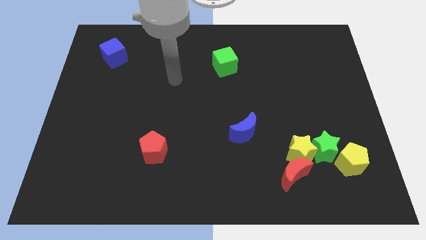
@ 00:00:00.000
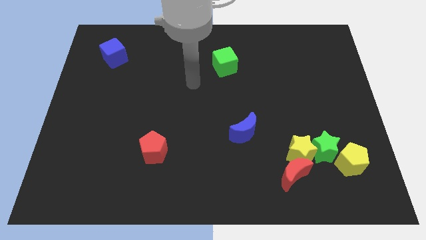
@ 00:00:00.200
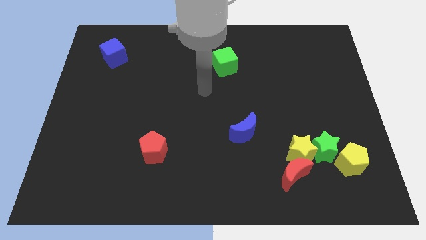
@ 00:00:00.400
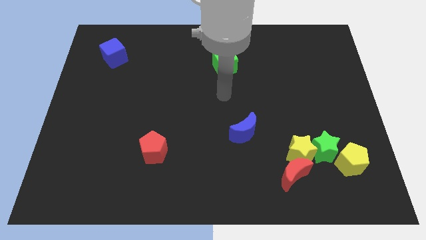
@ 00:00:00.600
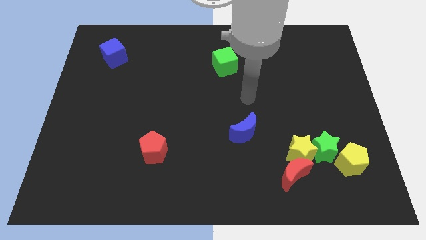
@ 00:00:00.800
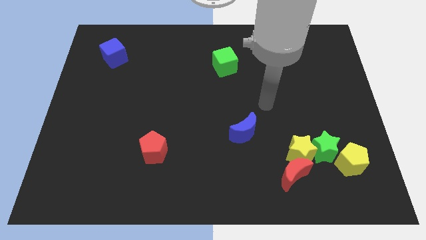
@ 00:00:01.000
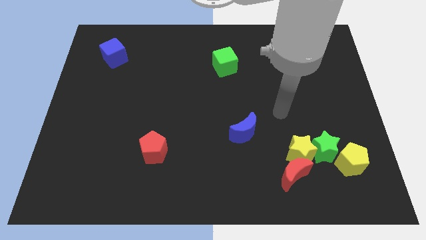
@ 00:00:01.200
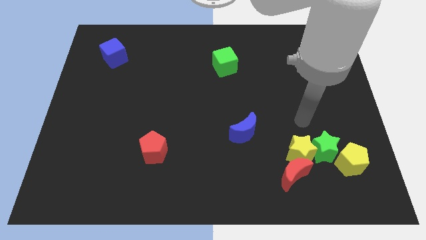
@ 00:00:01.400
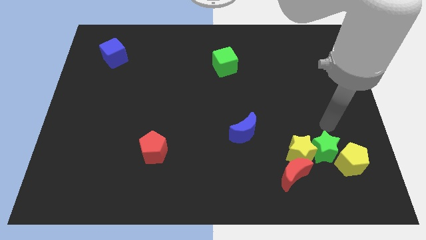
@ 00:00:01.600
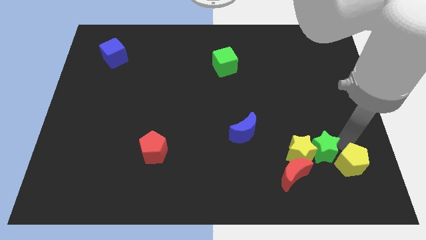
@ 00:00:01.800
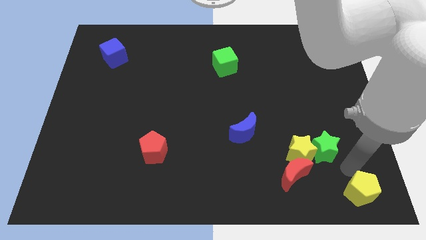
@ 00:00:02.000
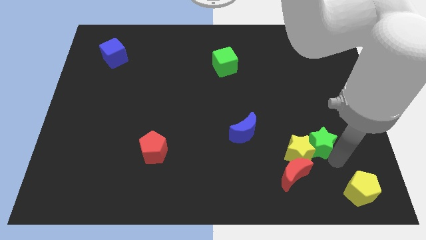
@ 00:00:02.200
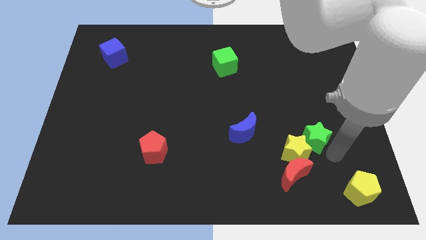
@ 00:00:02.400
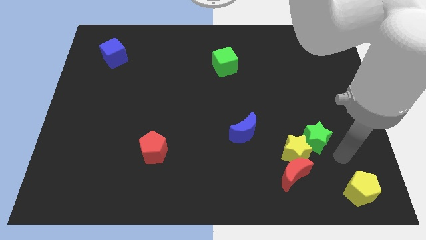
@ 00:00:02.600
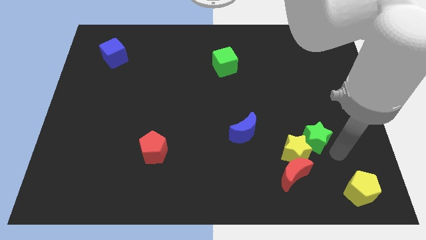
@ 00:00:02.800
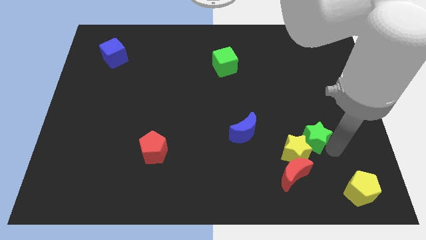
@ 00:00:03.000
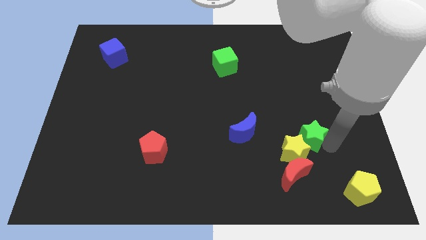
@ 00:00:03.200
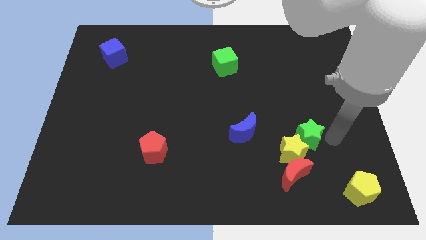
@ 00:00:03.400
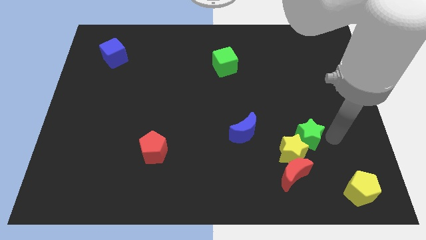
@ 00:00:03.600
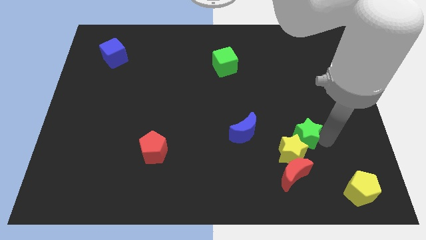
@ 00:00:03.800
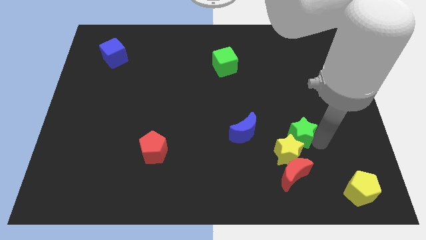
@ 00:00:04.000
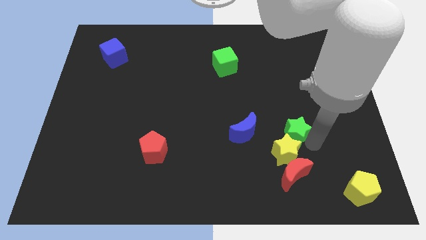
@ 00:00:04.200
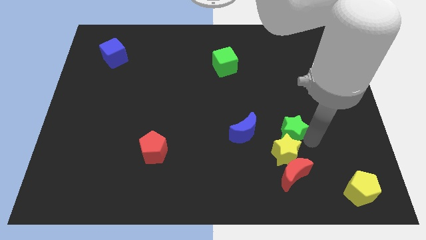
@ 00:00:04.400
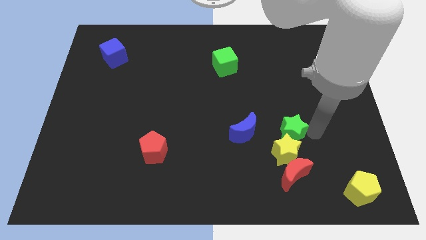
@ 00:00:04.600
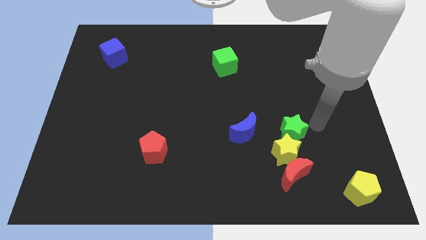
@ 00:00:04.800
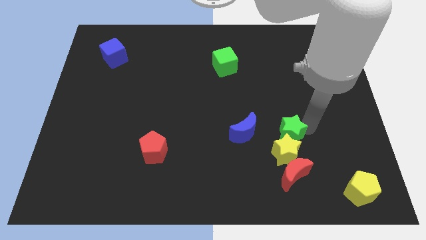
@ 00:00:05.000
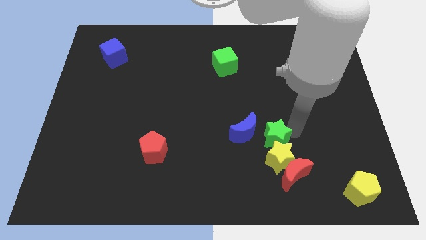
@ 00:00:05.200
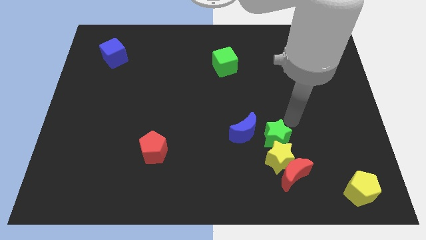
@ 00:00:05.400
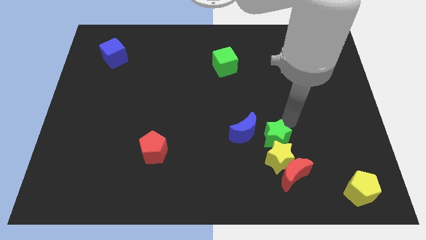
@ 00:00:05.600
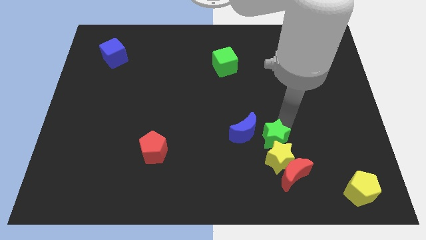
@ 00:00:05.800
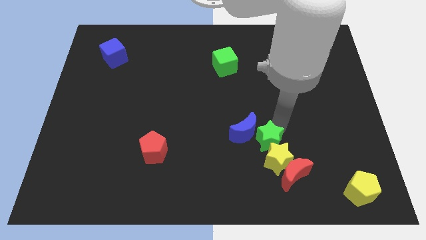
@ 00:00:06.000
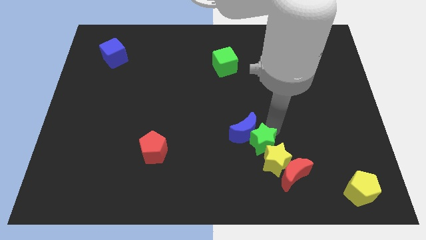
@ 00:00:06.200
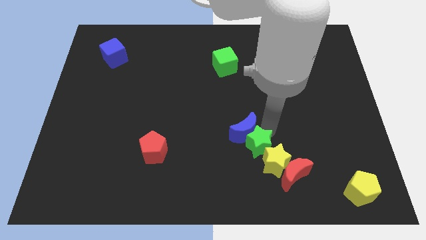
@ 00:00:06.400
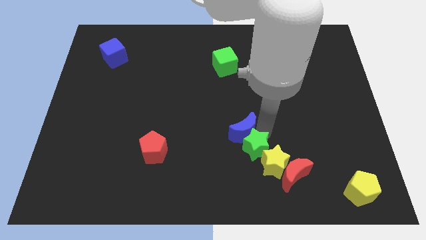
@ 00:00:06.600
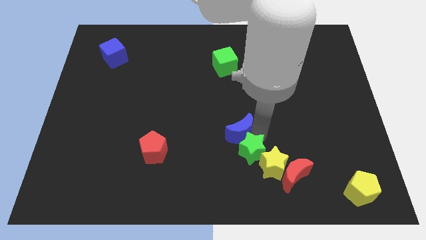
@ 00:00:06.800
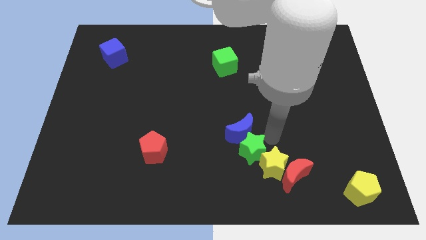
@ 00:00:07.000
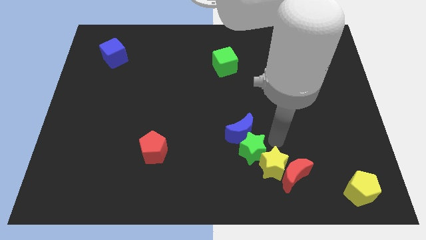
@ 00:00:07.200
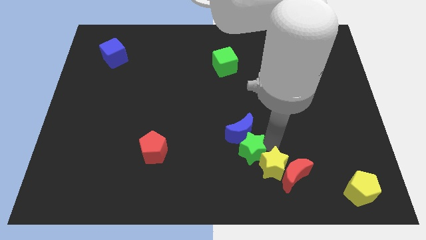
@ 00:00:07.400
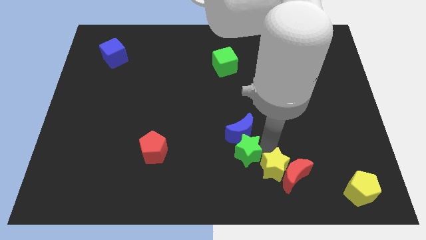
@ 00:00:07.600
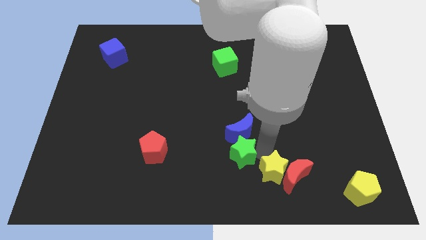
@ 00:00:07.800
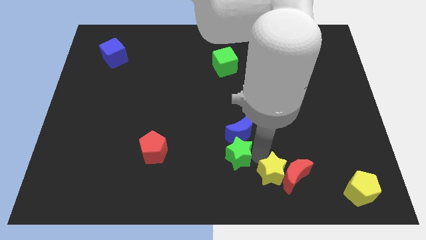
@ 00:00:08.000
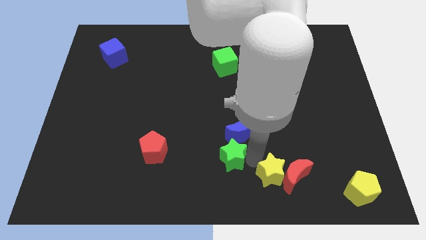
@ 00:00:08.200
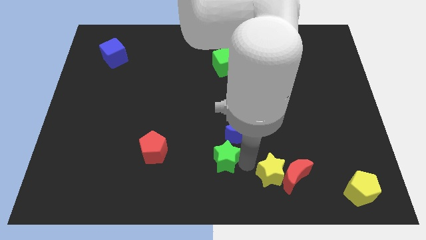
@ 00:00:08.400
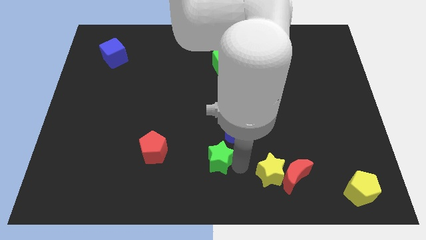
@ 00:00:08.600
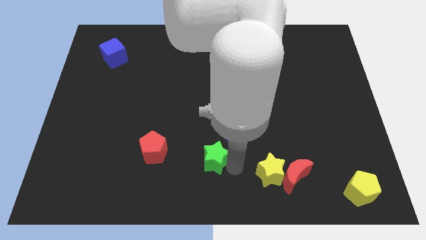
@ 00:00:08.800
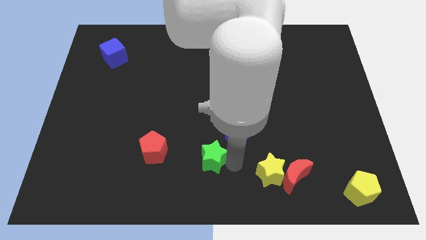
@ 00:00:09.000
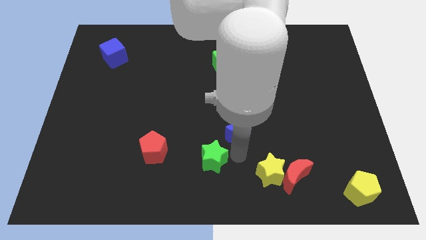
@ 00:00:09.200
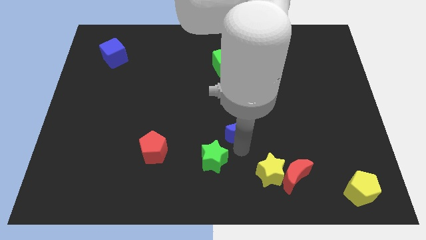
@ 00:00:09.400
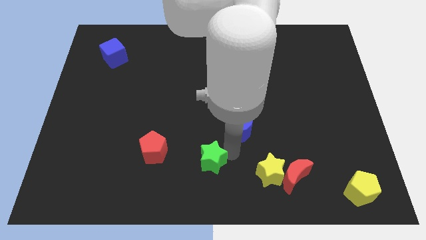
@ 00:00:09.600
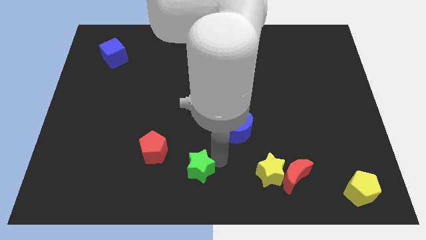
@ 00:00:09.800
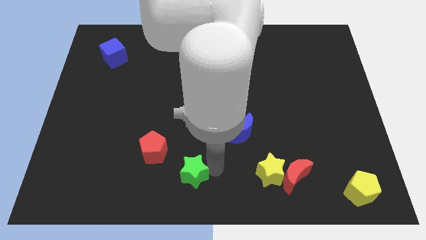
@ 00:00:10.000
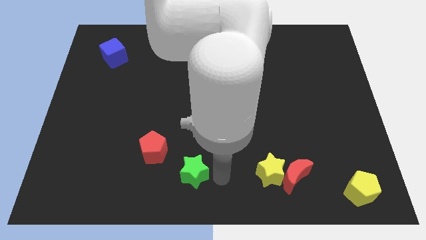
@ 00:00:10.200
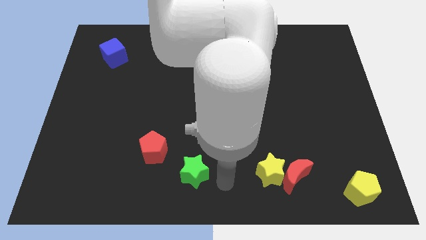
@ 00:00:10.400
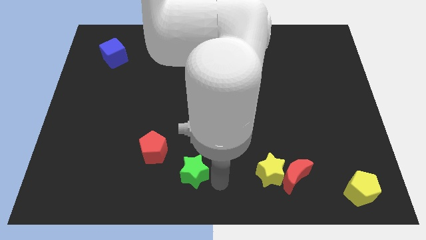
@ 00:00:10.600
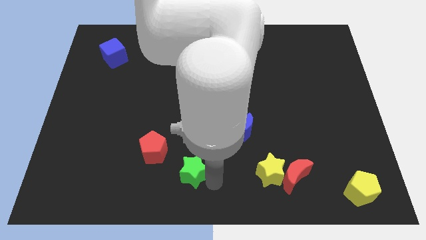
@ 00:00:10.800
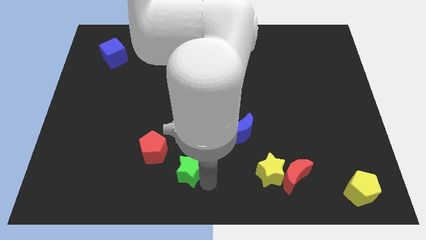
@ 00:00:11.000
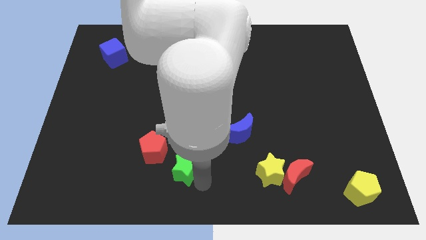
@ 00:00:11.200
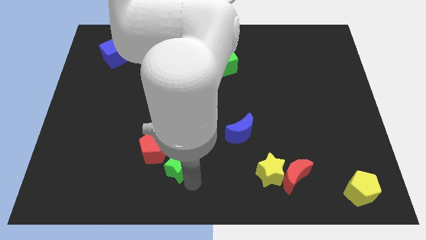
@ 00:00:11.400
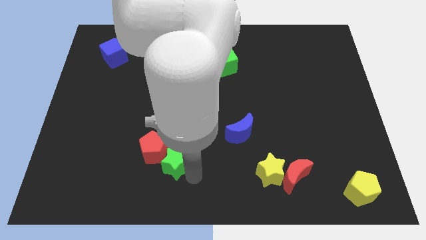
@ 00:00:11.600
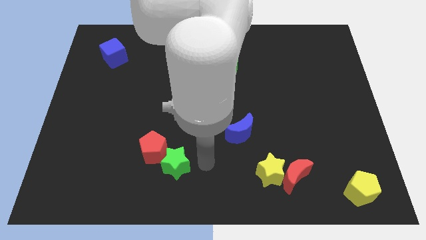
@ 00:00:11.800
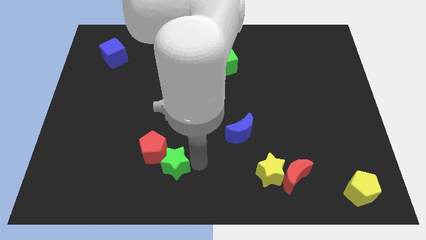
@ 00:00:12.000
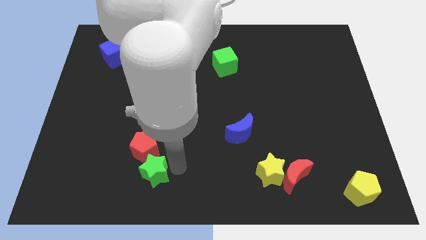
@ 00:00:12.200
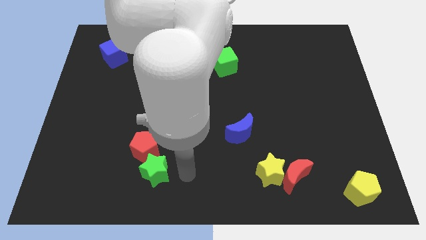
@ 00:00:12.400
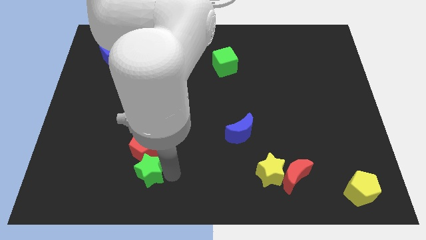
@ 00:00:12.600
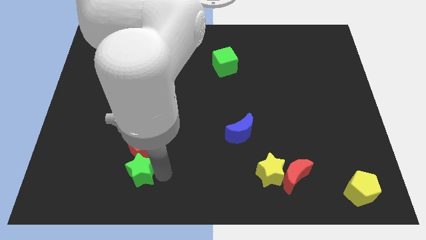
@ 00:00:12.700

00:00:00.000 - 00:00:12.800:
put the green star to the bottom left of the red pentagon

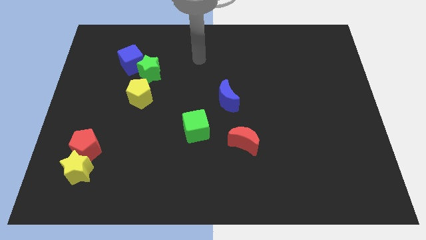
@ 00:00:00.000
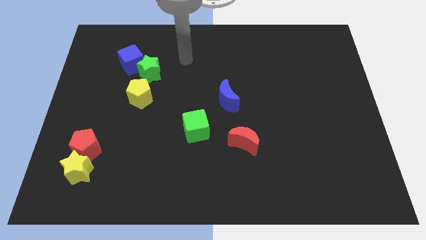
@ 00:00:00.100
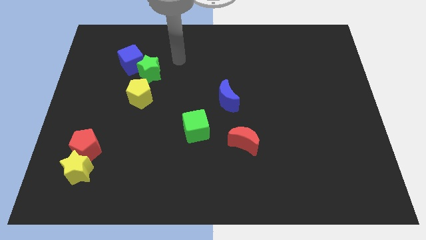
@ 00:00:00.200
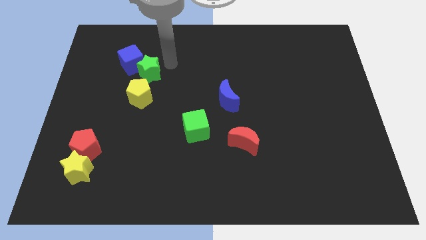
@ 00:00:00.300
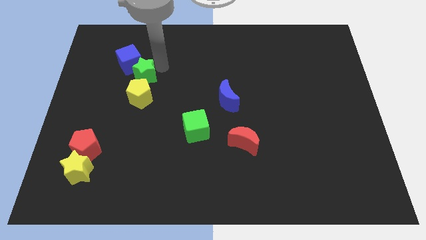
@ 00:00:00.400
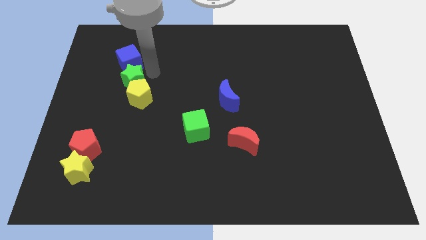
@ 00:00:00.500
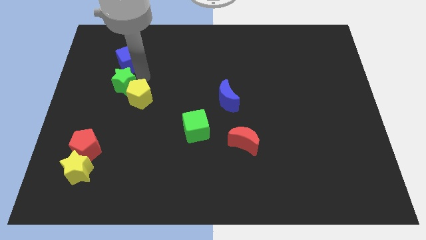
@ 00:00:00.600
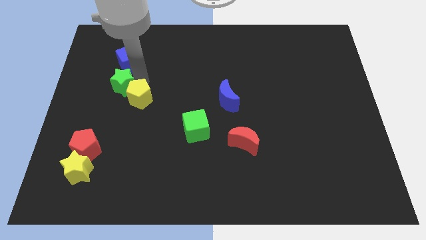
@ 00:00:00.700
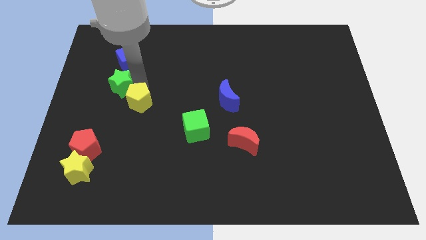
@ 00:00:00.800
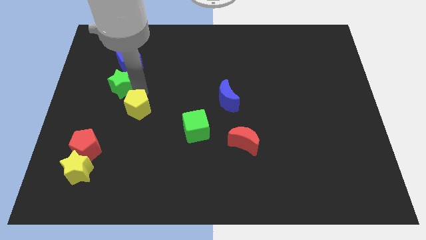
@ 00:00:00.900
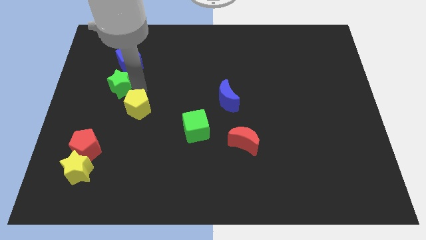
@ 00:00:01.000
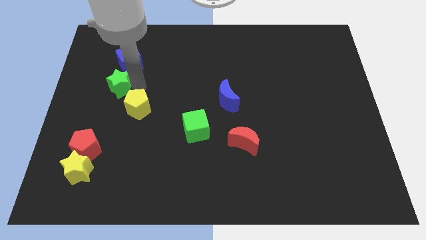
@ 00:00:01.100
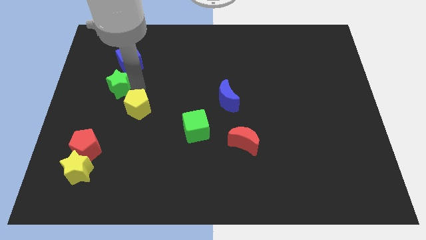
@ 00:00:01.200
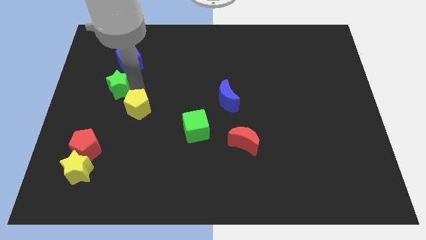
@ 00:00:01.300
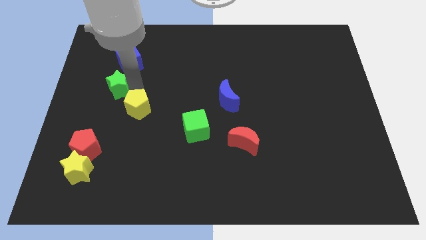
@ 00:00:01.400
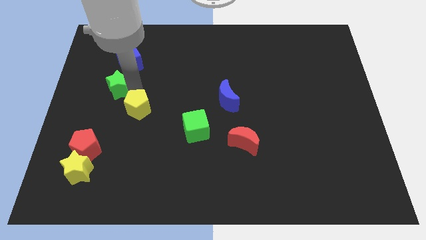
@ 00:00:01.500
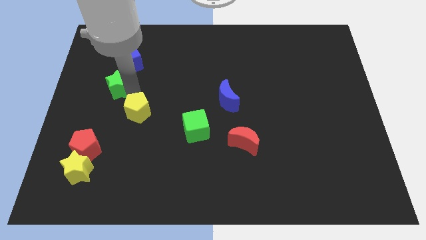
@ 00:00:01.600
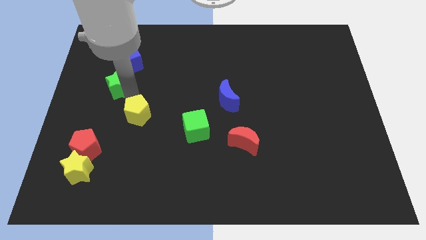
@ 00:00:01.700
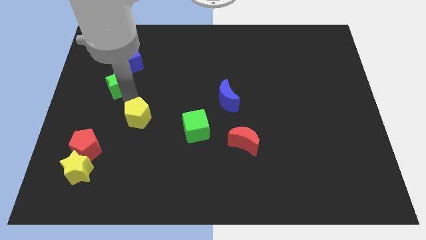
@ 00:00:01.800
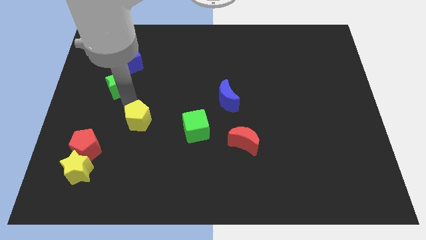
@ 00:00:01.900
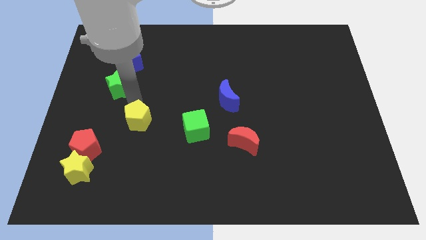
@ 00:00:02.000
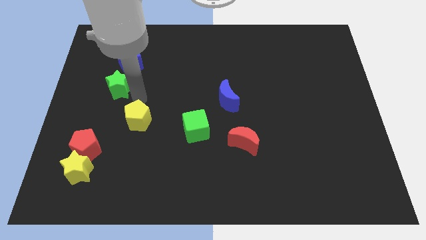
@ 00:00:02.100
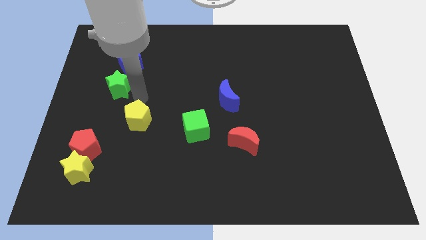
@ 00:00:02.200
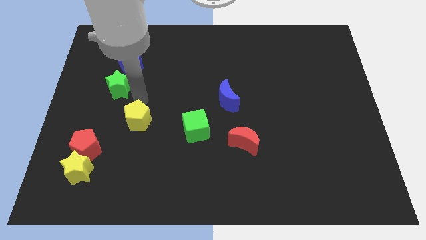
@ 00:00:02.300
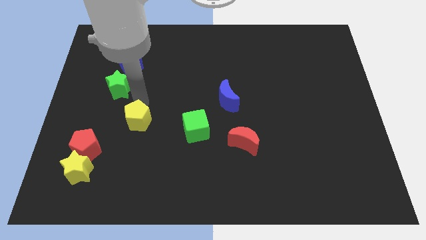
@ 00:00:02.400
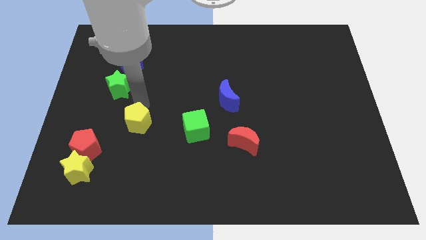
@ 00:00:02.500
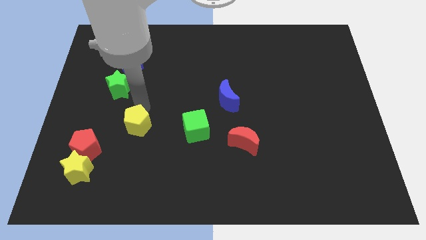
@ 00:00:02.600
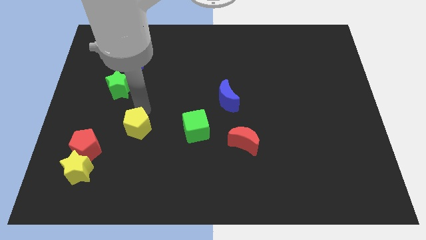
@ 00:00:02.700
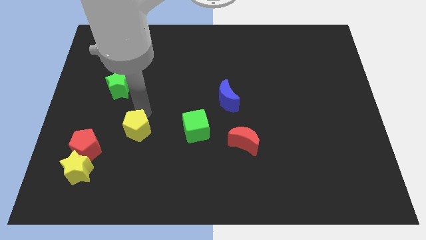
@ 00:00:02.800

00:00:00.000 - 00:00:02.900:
push the yellow pentagon right of the red pentagon
